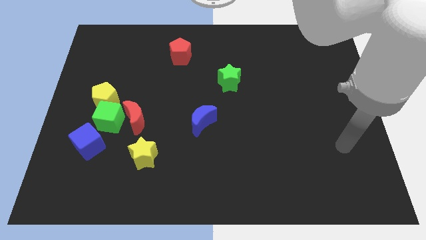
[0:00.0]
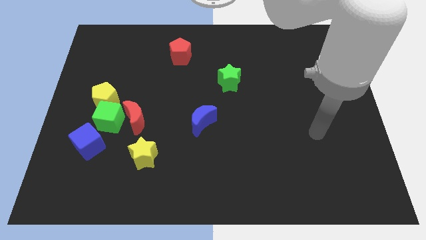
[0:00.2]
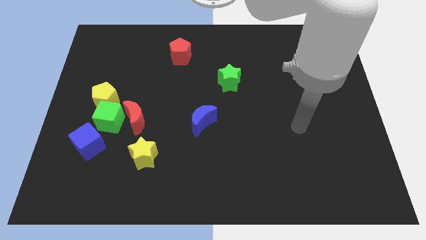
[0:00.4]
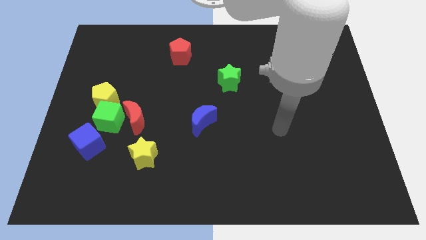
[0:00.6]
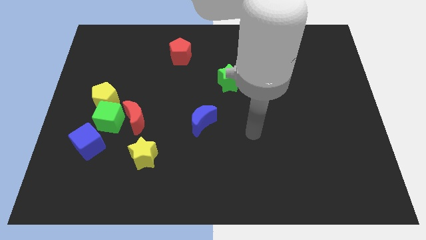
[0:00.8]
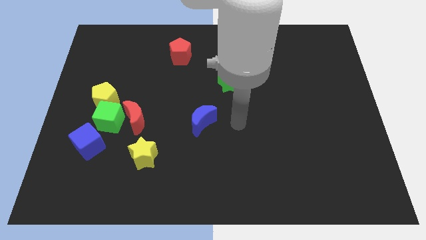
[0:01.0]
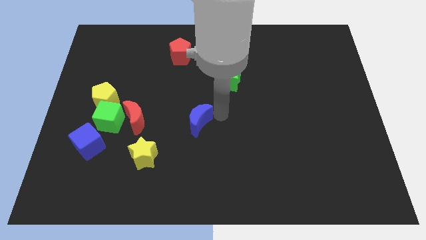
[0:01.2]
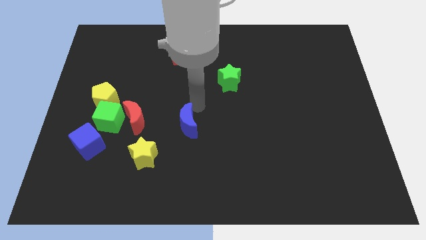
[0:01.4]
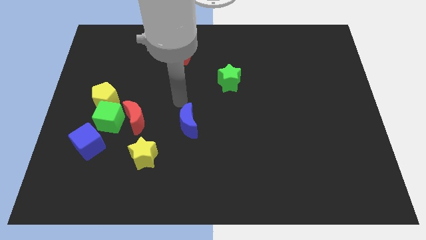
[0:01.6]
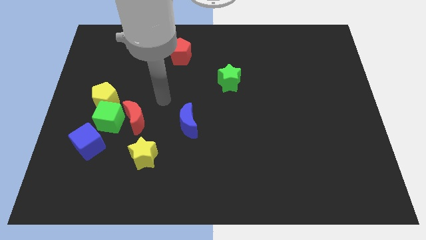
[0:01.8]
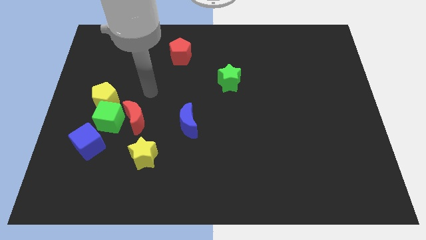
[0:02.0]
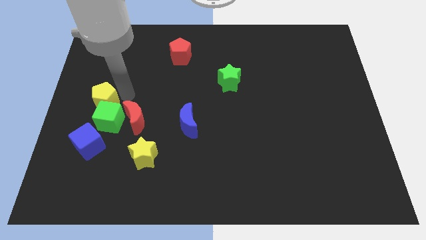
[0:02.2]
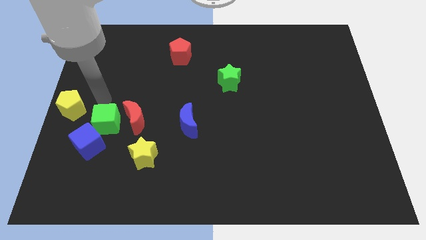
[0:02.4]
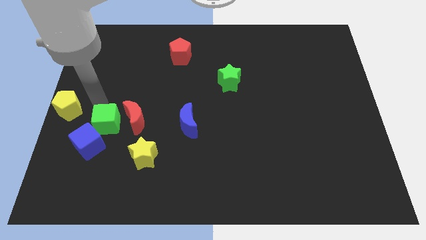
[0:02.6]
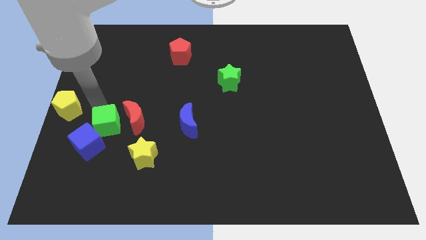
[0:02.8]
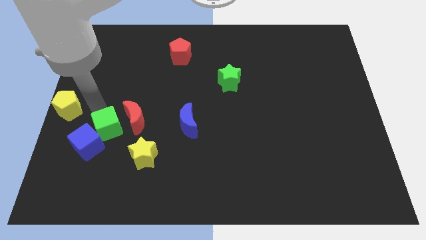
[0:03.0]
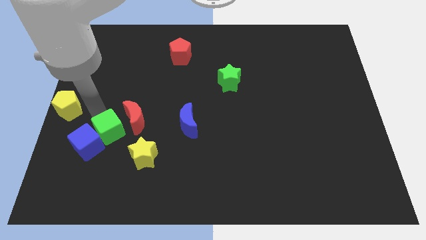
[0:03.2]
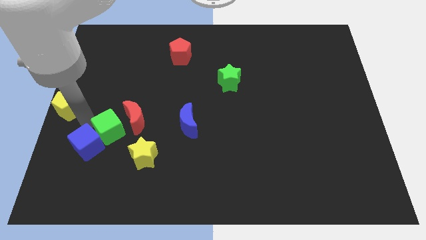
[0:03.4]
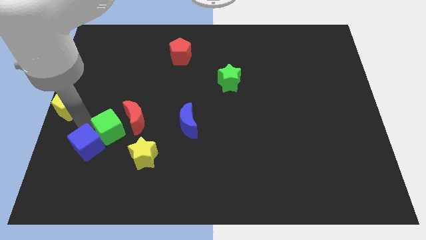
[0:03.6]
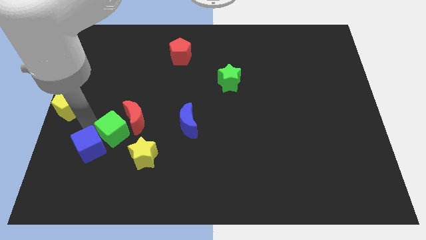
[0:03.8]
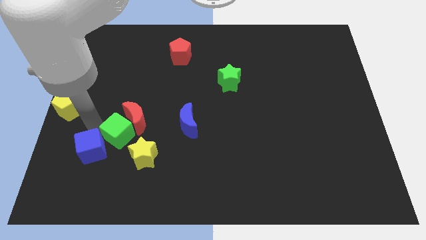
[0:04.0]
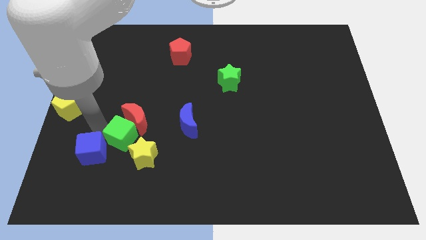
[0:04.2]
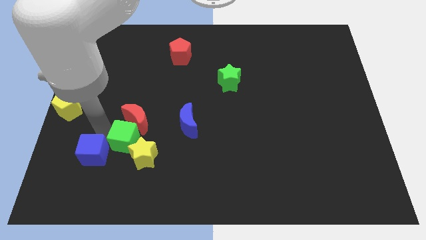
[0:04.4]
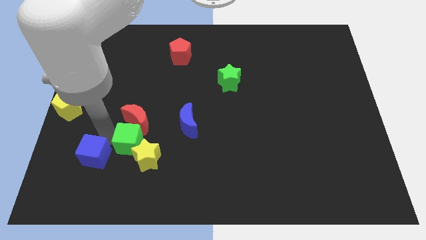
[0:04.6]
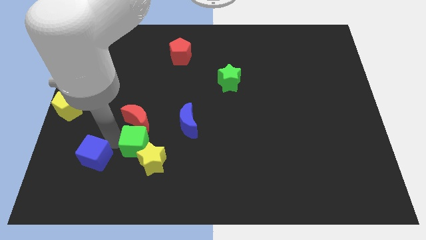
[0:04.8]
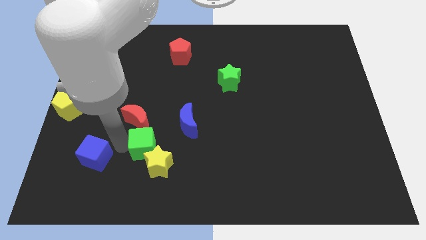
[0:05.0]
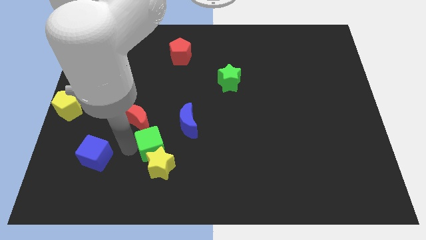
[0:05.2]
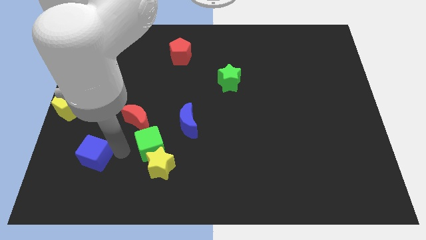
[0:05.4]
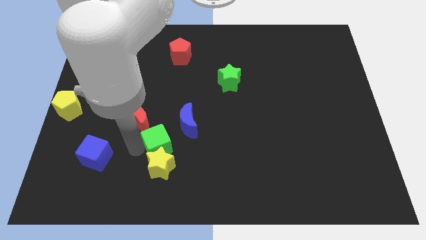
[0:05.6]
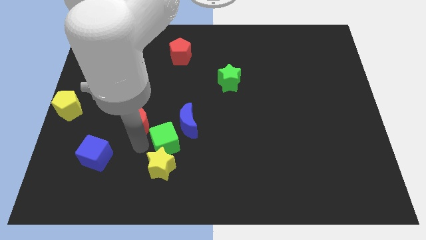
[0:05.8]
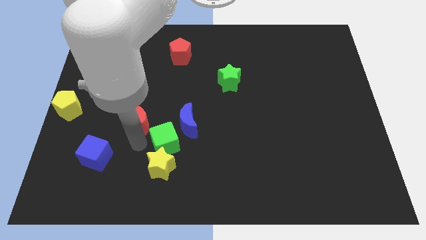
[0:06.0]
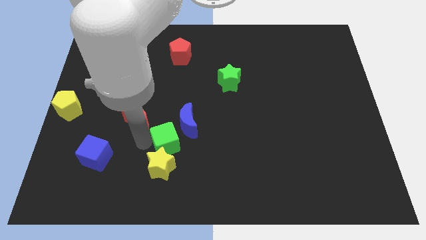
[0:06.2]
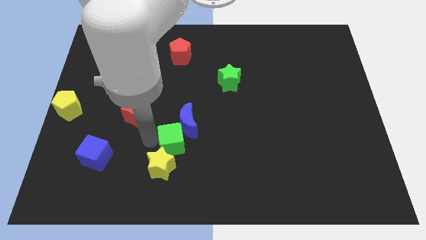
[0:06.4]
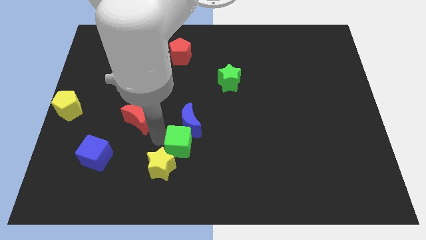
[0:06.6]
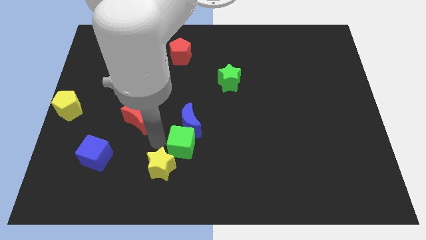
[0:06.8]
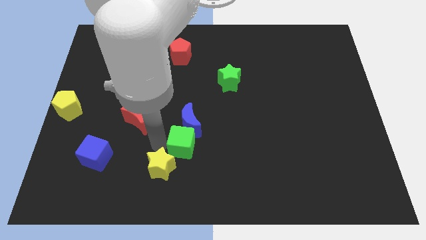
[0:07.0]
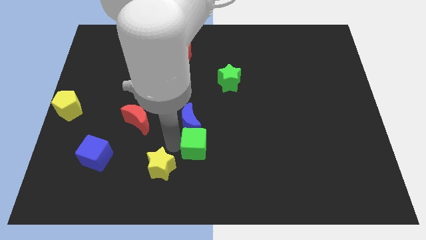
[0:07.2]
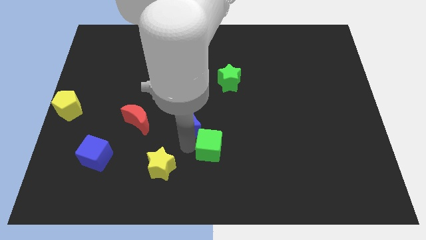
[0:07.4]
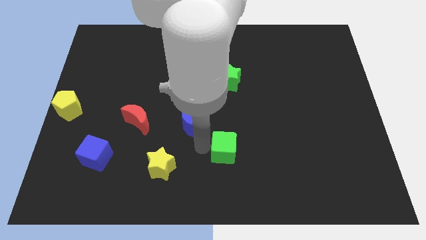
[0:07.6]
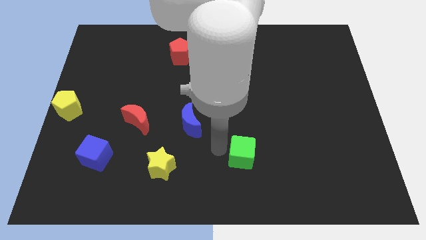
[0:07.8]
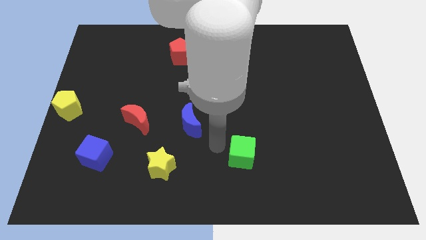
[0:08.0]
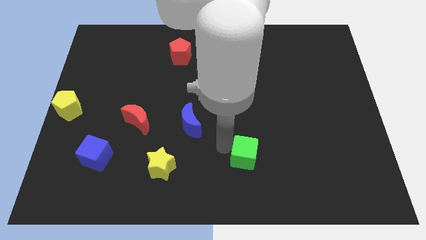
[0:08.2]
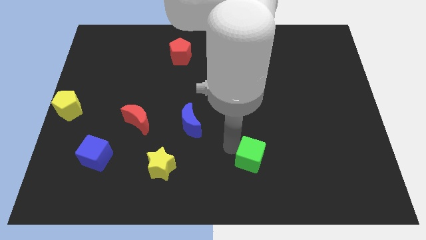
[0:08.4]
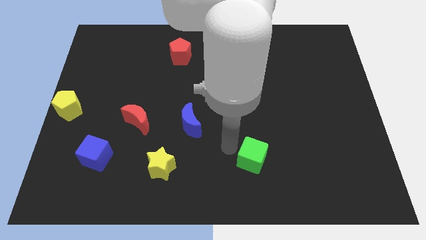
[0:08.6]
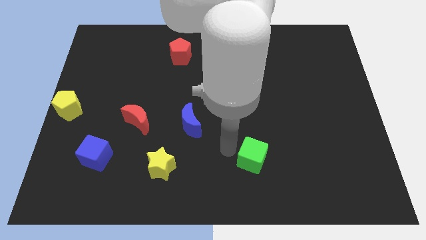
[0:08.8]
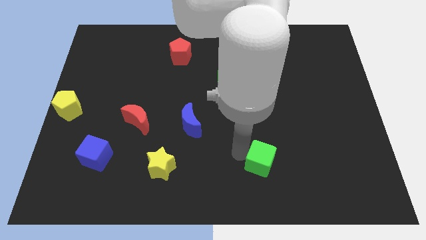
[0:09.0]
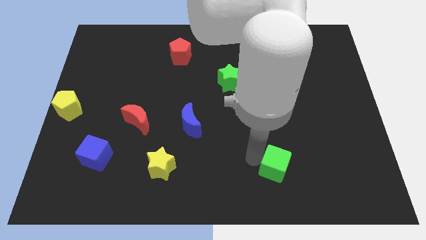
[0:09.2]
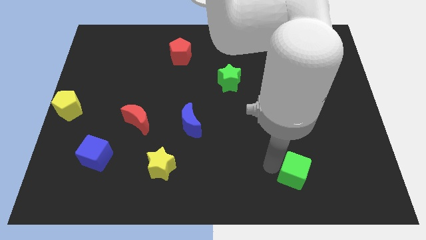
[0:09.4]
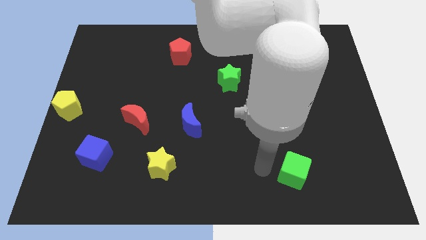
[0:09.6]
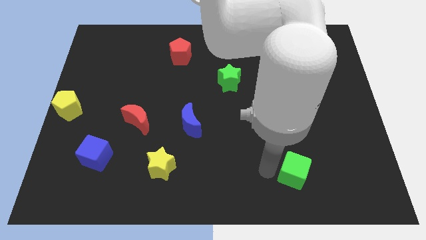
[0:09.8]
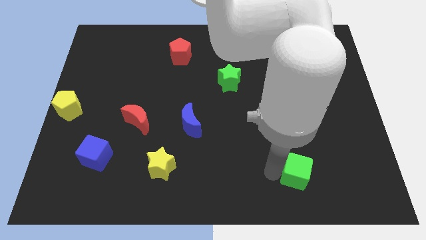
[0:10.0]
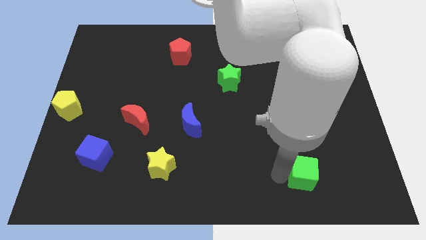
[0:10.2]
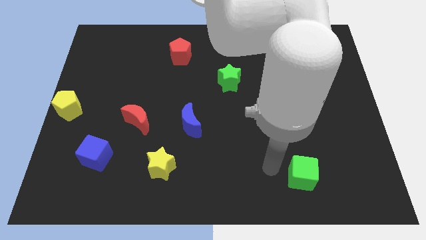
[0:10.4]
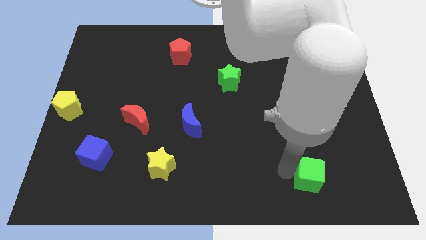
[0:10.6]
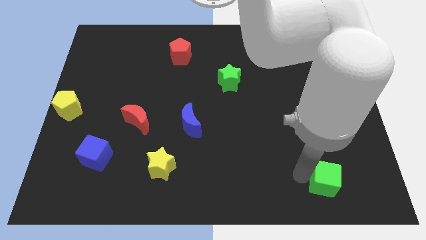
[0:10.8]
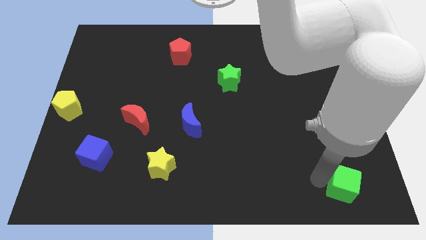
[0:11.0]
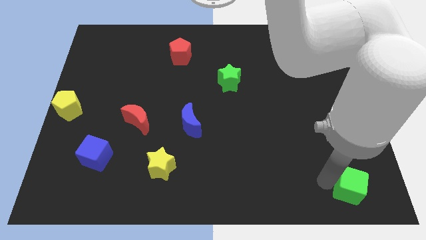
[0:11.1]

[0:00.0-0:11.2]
put the green cube to the bottom right

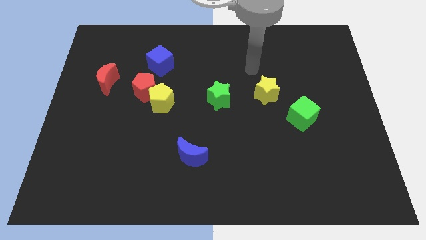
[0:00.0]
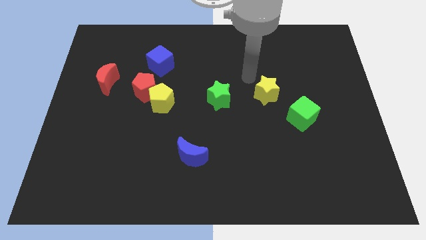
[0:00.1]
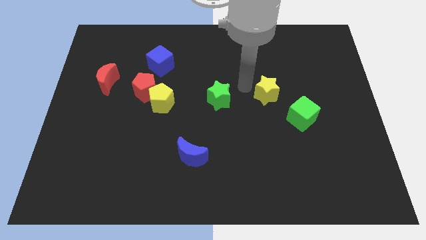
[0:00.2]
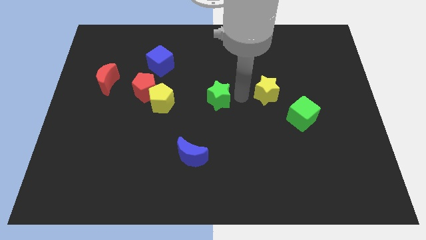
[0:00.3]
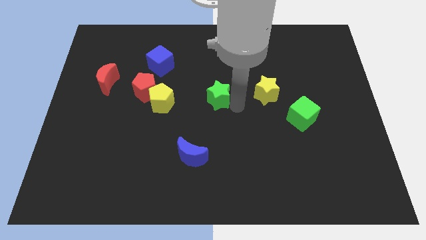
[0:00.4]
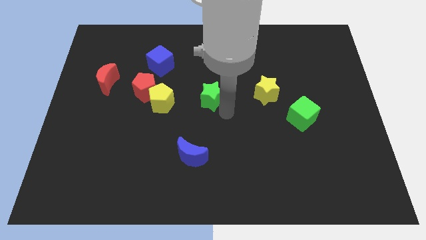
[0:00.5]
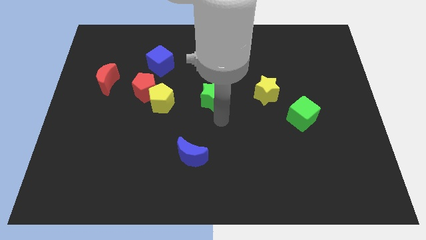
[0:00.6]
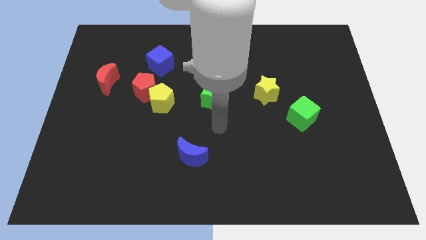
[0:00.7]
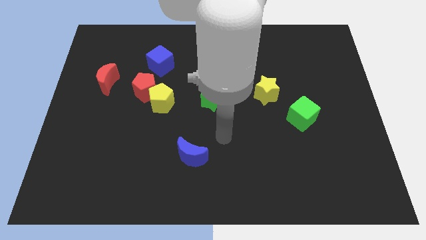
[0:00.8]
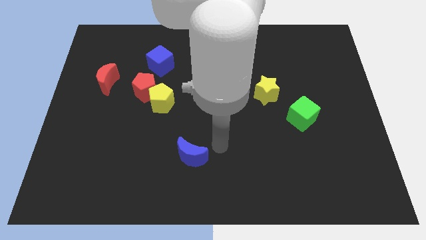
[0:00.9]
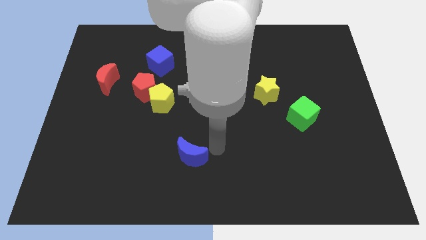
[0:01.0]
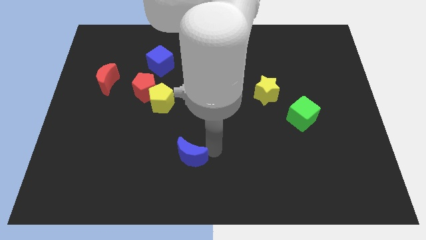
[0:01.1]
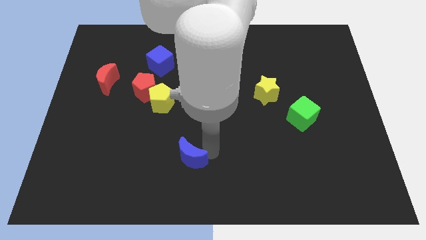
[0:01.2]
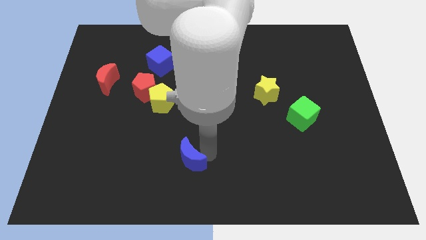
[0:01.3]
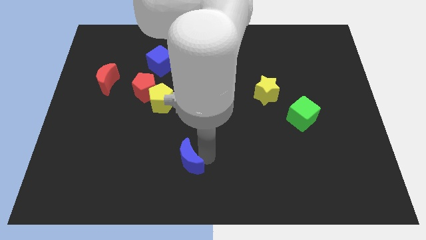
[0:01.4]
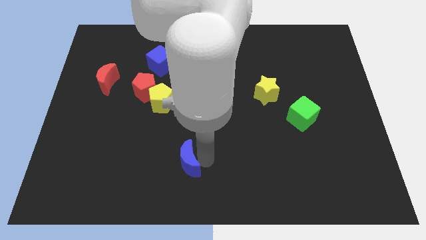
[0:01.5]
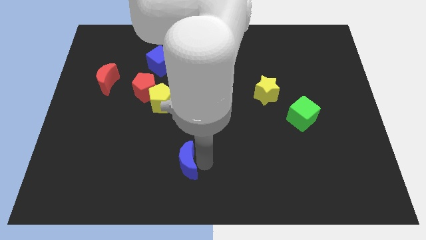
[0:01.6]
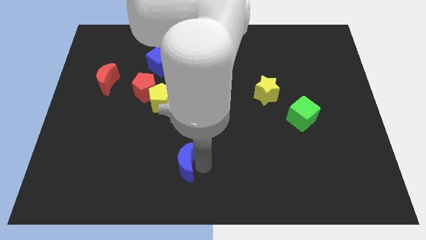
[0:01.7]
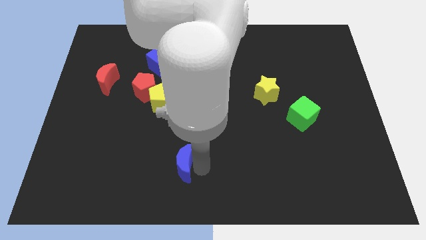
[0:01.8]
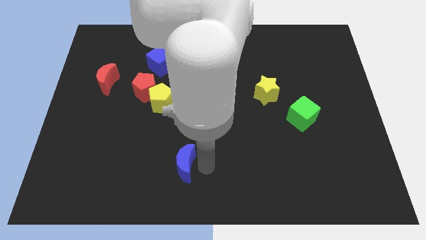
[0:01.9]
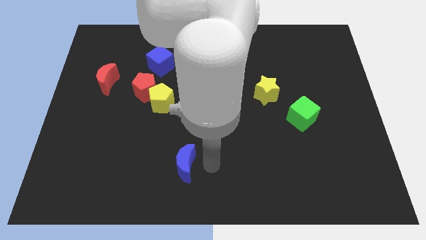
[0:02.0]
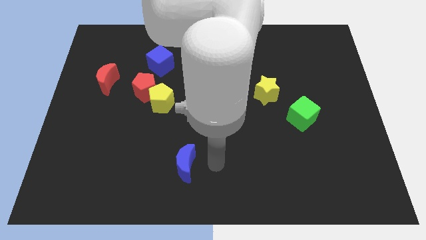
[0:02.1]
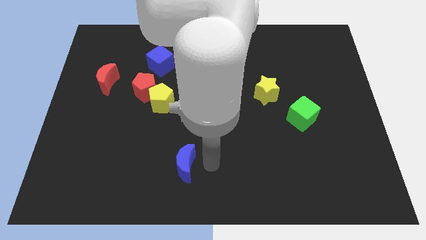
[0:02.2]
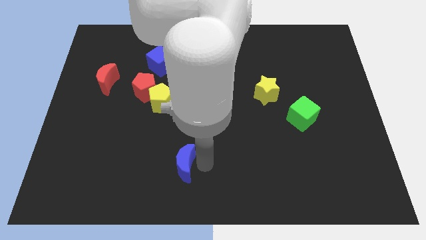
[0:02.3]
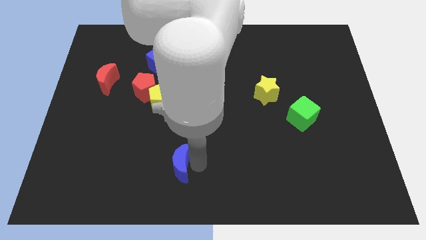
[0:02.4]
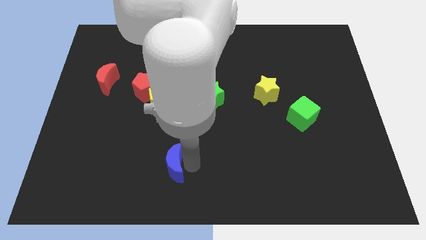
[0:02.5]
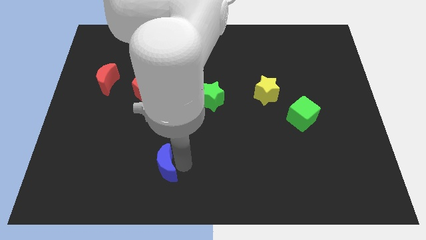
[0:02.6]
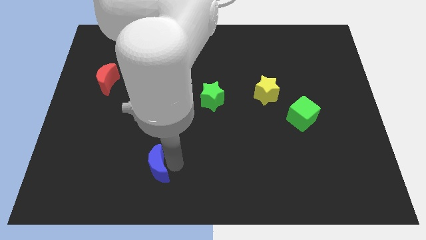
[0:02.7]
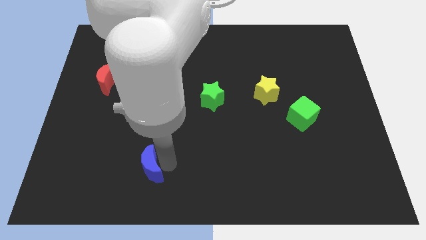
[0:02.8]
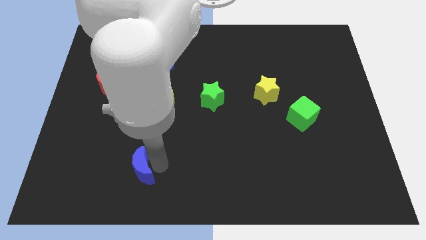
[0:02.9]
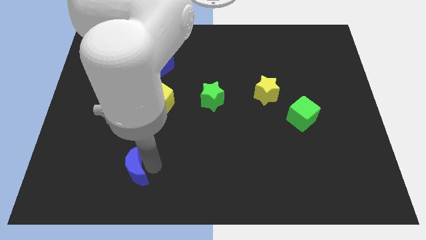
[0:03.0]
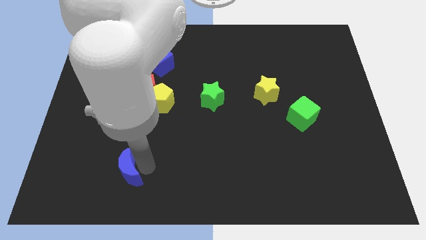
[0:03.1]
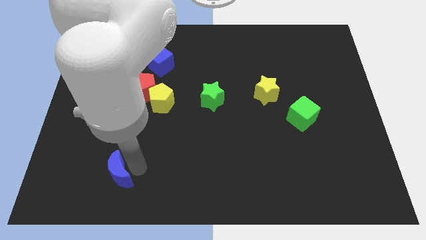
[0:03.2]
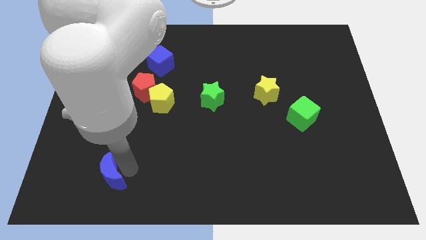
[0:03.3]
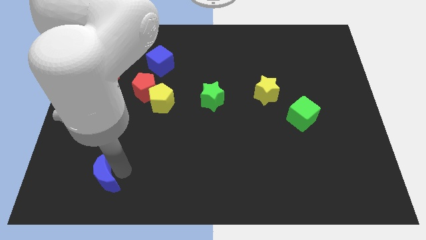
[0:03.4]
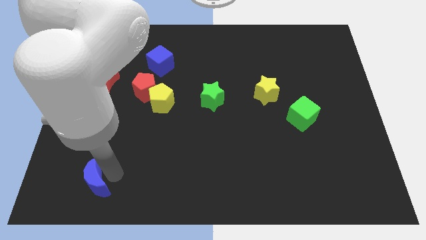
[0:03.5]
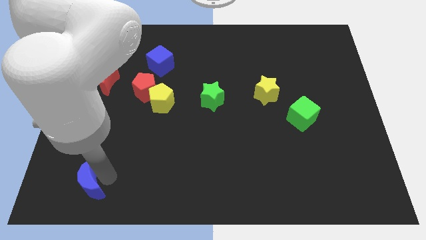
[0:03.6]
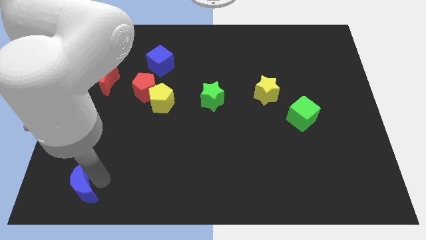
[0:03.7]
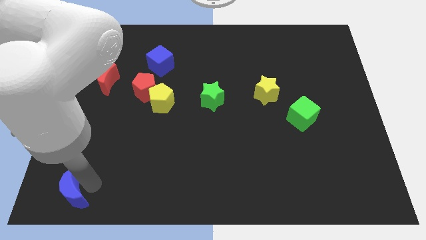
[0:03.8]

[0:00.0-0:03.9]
push the blue moon to the bottom left of the board
